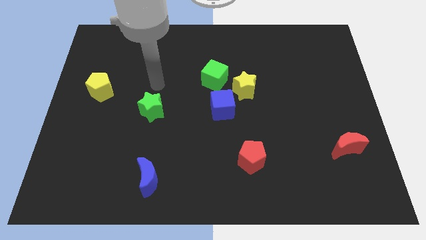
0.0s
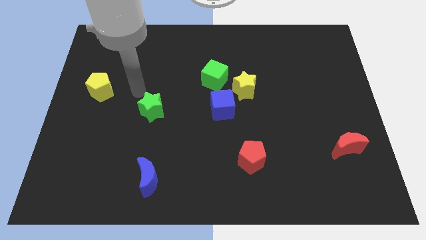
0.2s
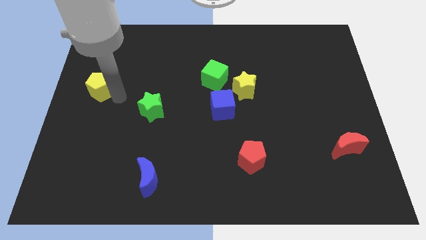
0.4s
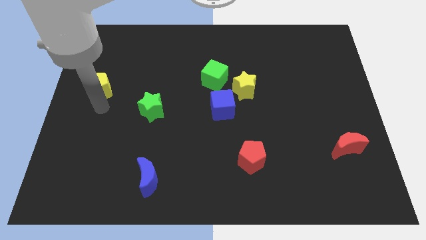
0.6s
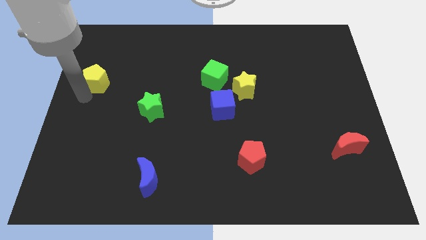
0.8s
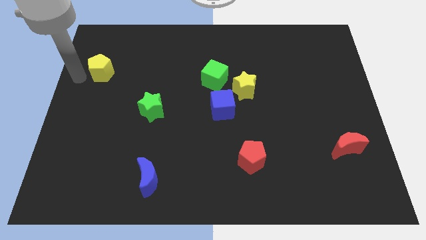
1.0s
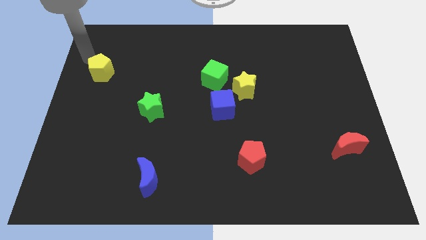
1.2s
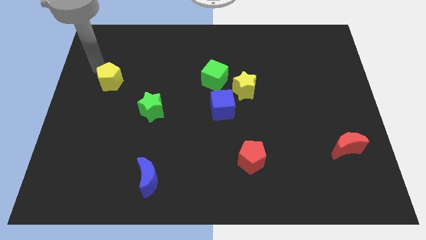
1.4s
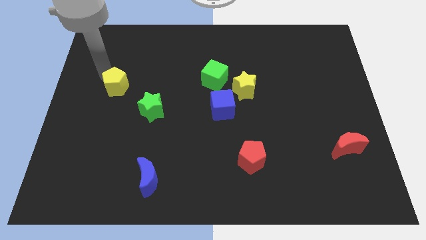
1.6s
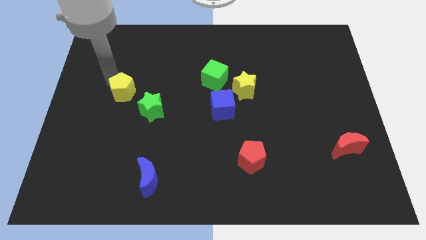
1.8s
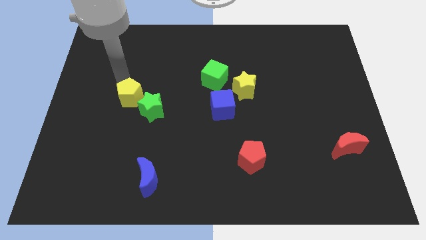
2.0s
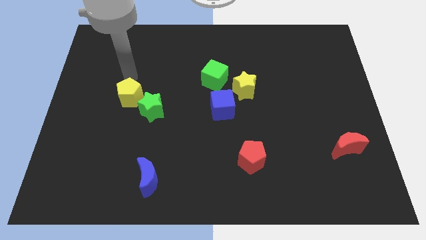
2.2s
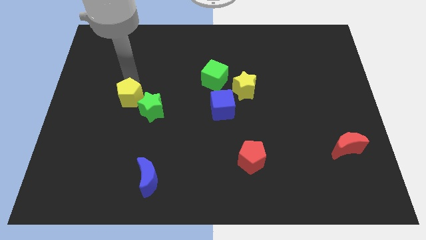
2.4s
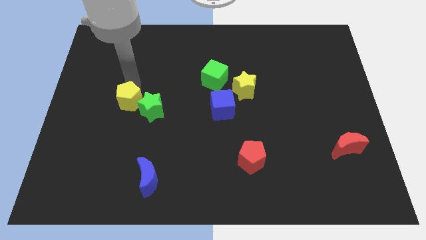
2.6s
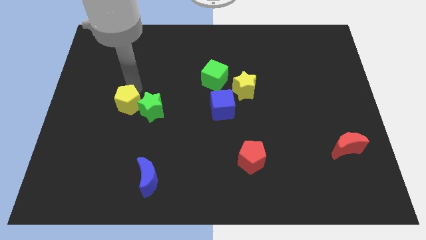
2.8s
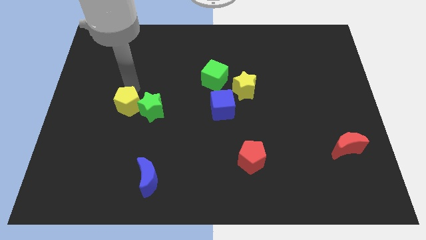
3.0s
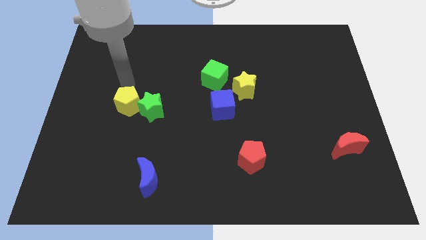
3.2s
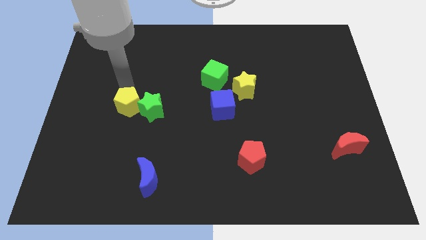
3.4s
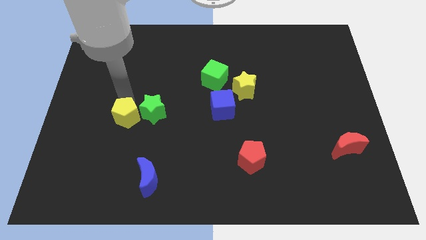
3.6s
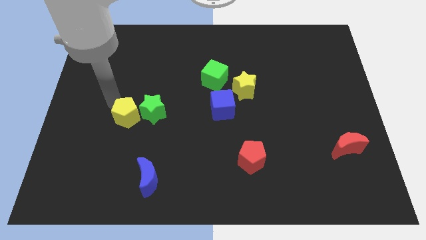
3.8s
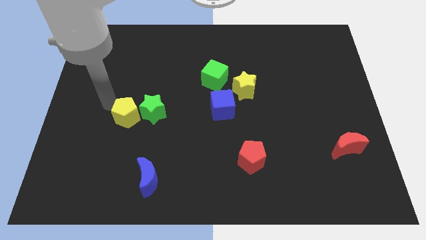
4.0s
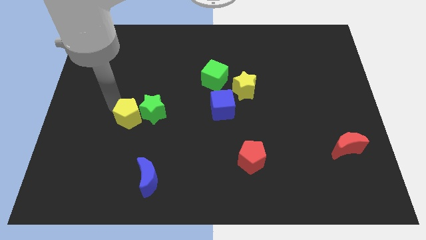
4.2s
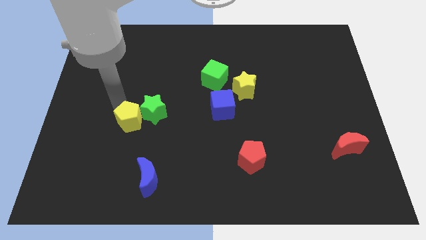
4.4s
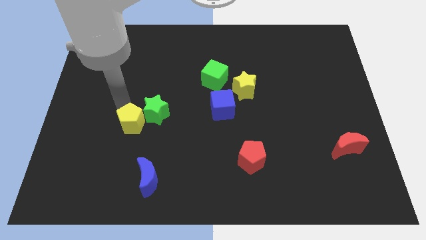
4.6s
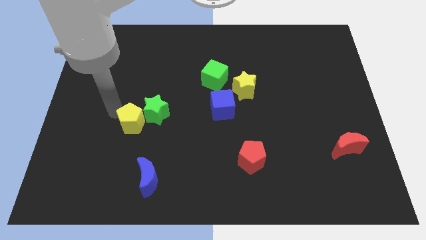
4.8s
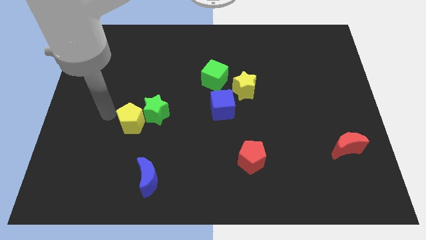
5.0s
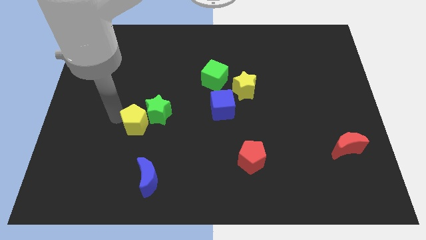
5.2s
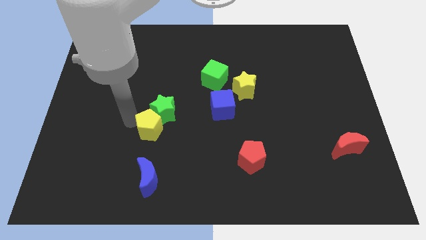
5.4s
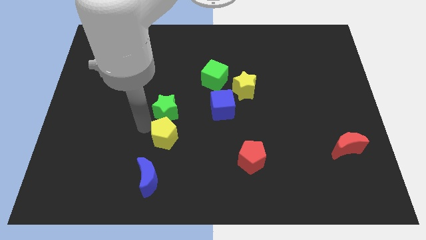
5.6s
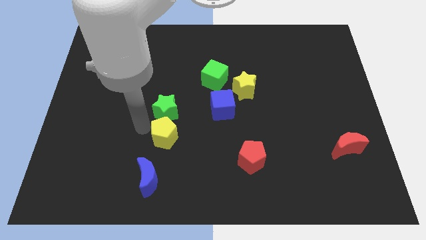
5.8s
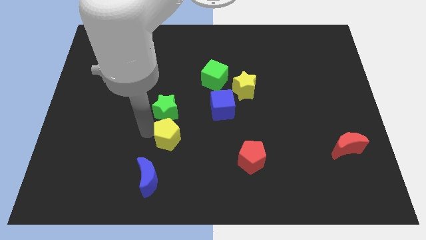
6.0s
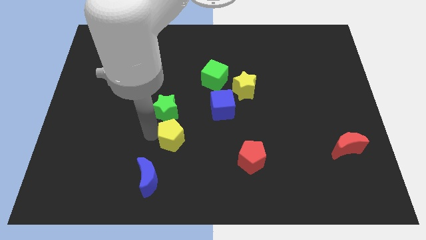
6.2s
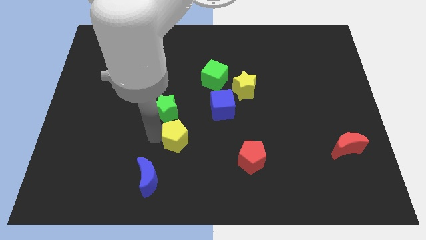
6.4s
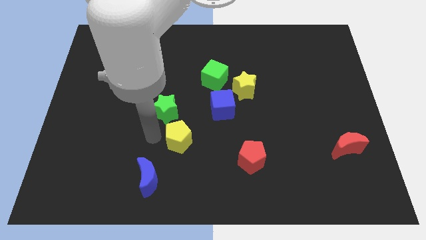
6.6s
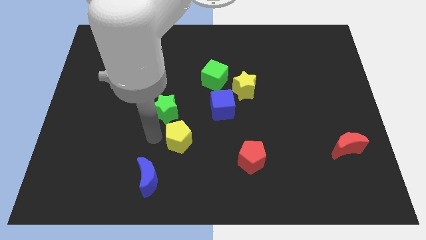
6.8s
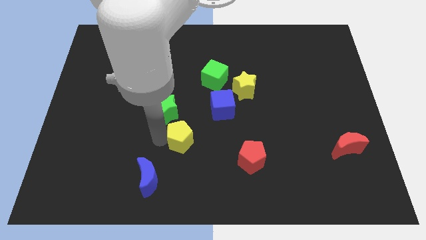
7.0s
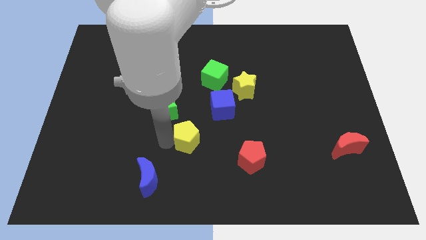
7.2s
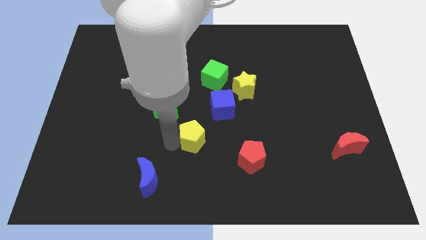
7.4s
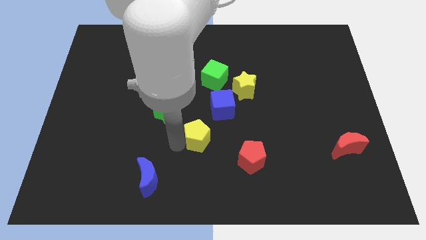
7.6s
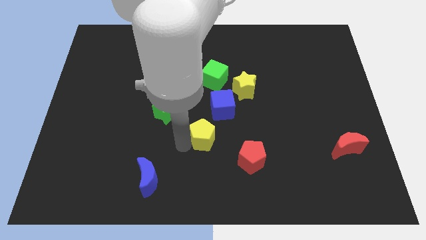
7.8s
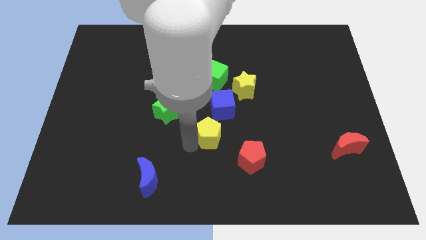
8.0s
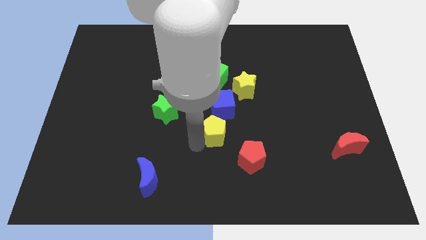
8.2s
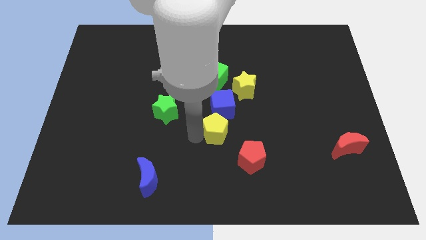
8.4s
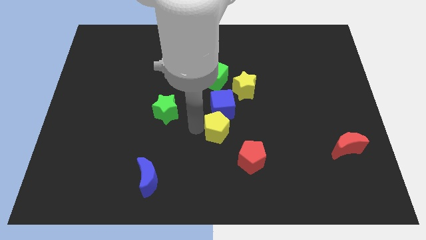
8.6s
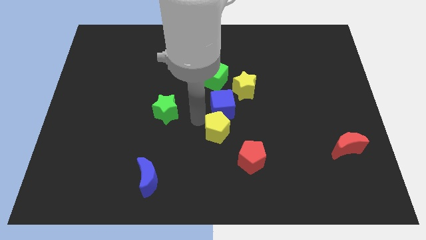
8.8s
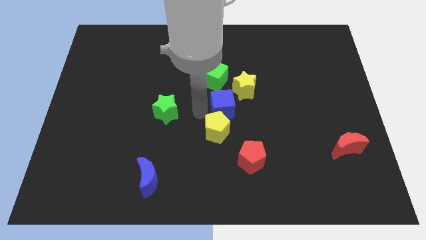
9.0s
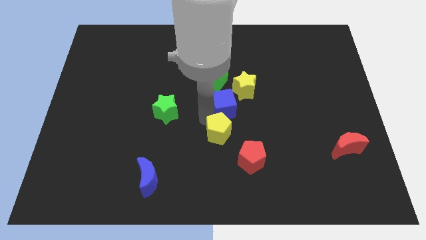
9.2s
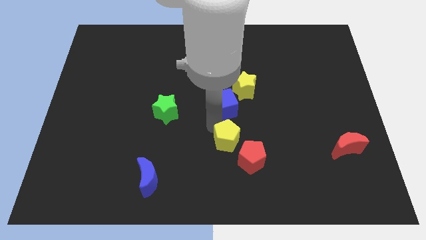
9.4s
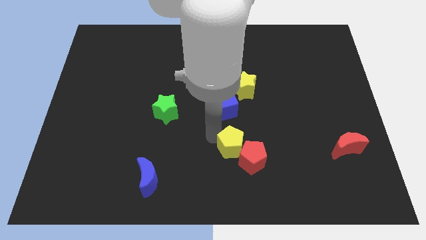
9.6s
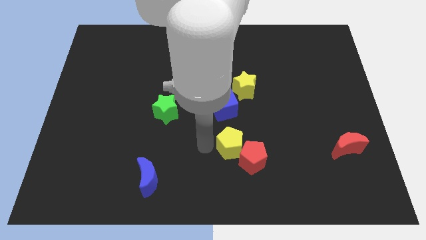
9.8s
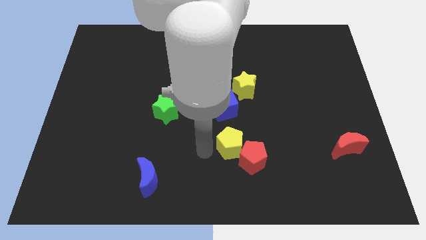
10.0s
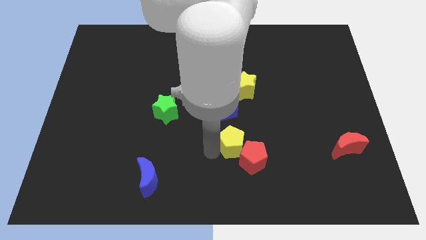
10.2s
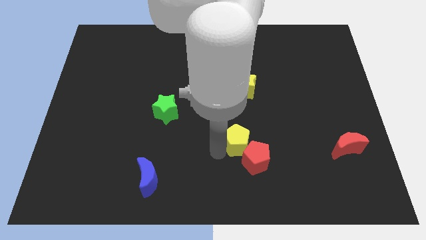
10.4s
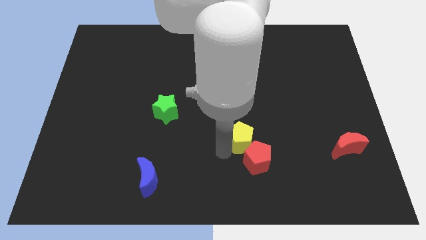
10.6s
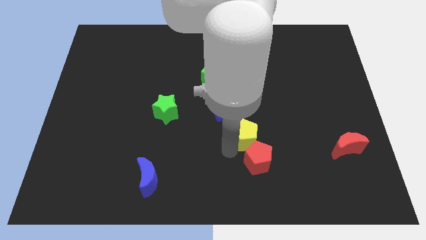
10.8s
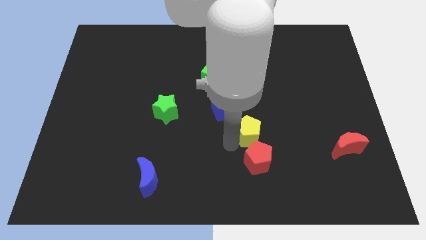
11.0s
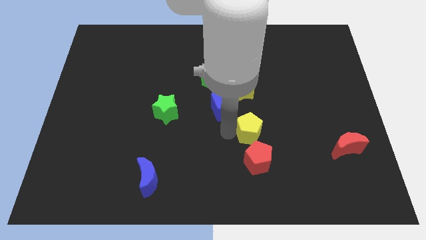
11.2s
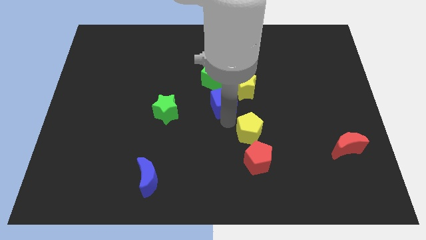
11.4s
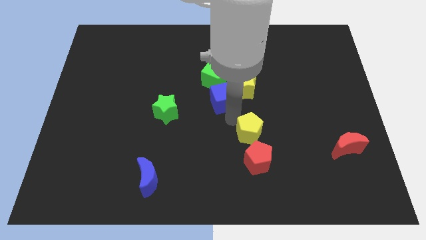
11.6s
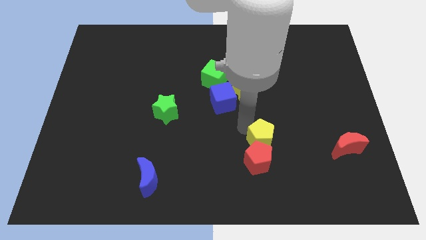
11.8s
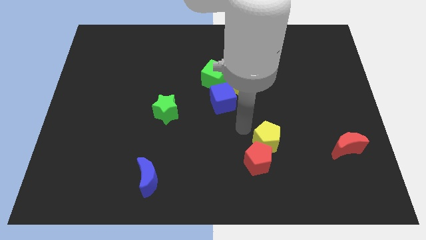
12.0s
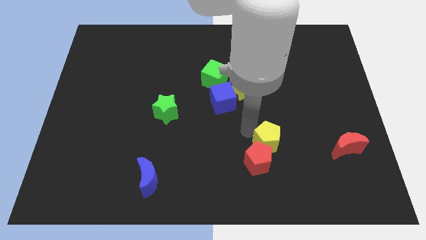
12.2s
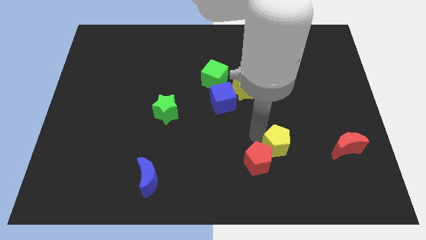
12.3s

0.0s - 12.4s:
put the yellow pentagon just right of the red pentagon

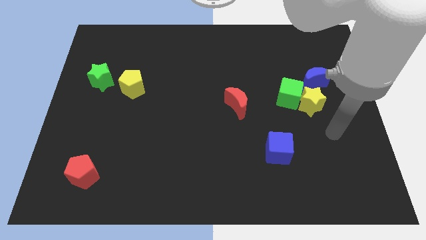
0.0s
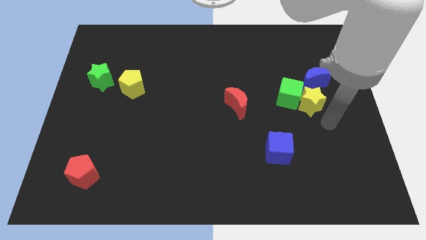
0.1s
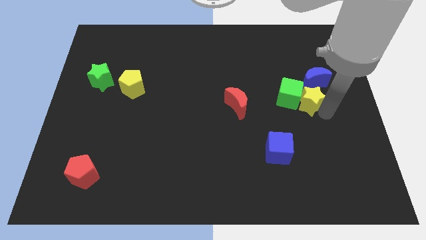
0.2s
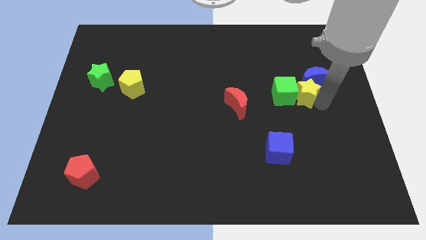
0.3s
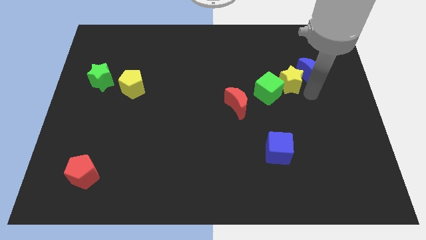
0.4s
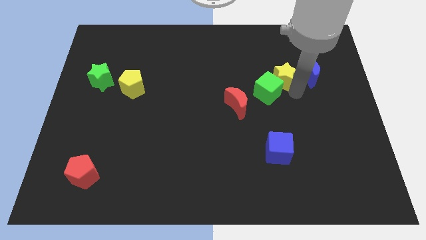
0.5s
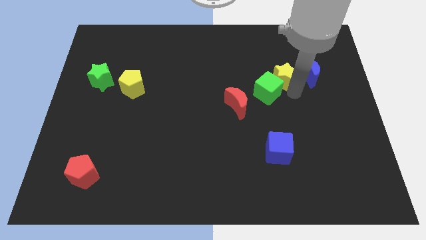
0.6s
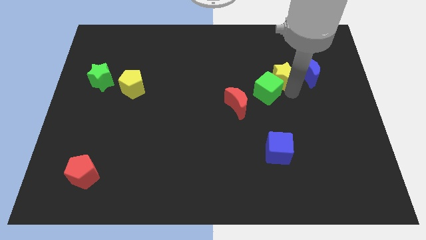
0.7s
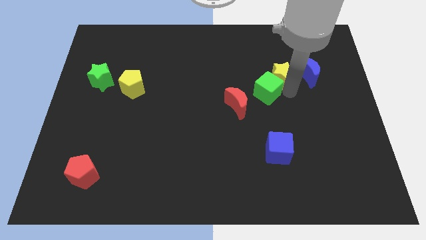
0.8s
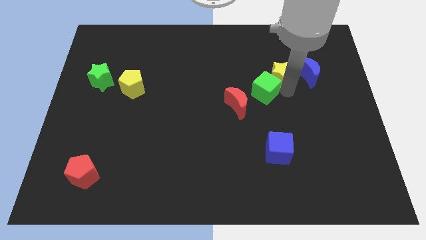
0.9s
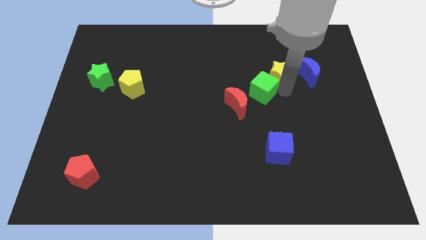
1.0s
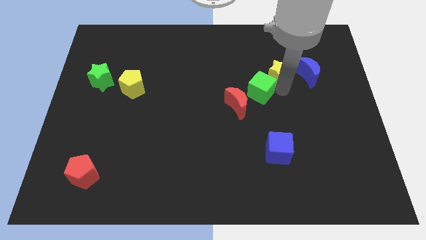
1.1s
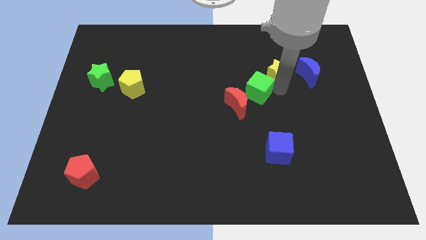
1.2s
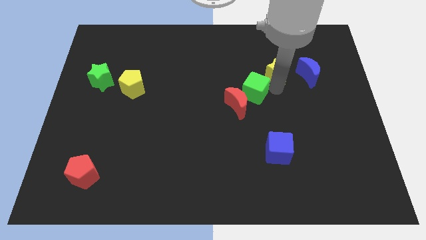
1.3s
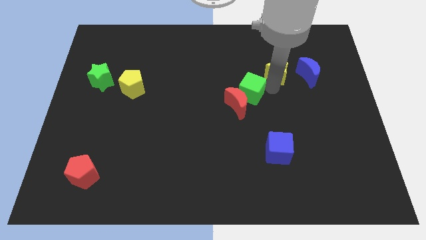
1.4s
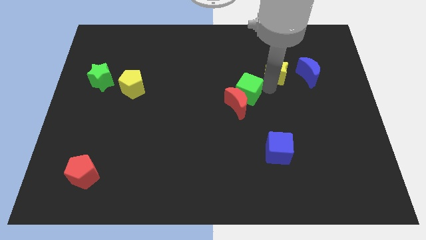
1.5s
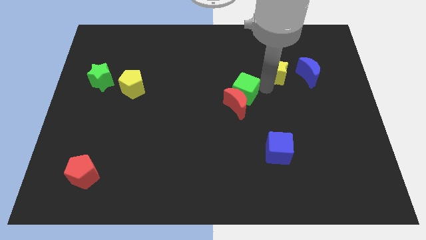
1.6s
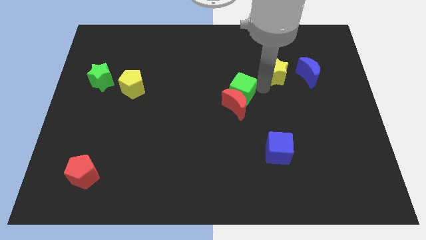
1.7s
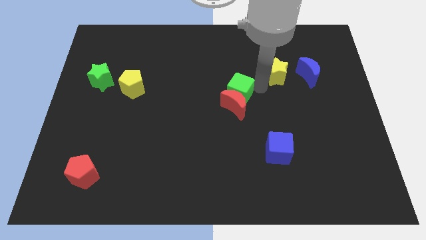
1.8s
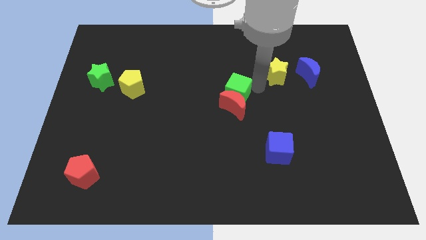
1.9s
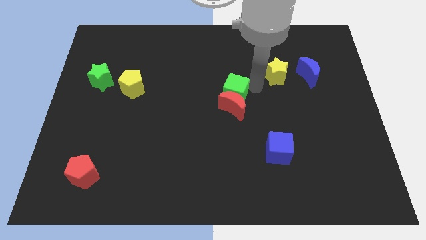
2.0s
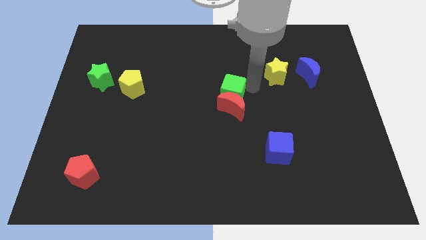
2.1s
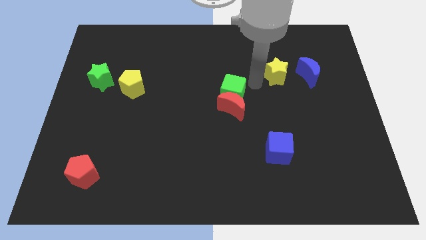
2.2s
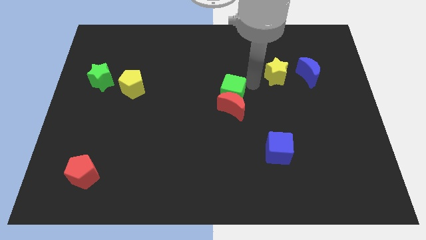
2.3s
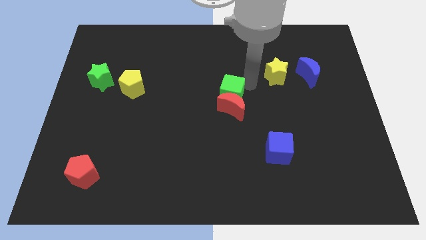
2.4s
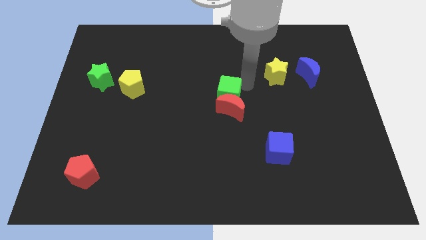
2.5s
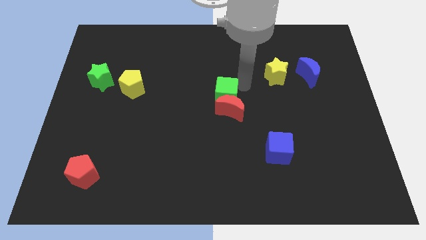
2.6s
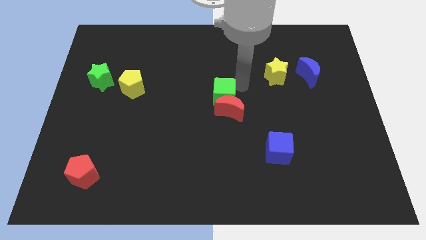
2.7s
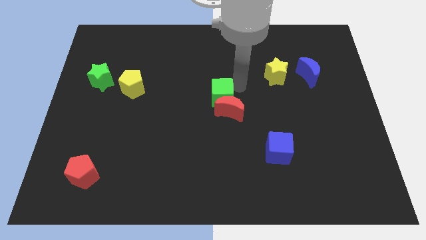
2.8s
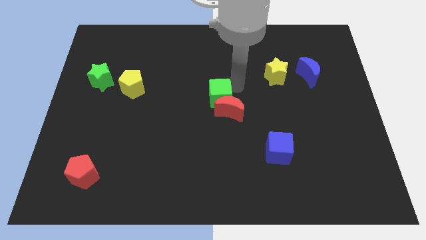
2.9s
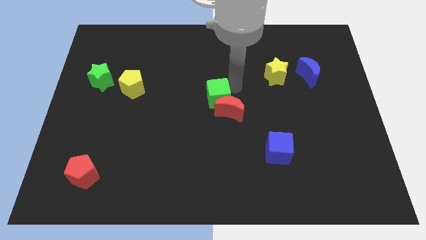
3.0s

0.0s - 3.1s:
push the green cube left of the red moon
